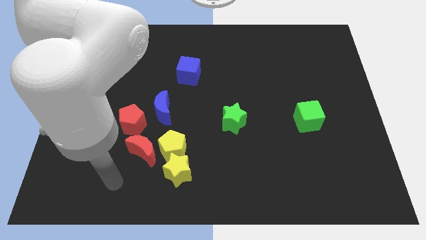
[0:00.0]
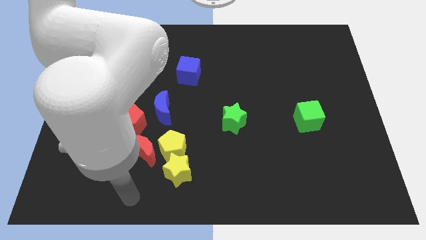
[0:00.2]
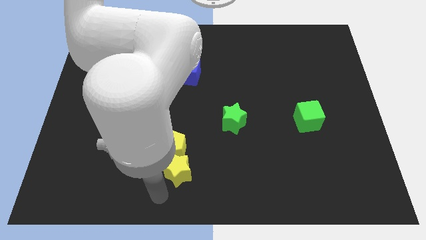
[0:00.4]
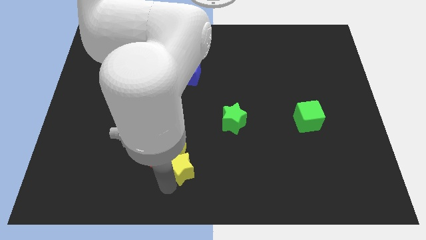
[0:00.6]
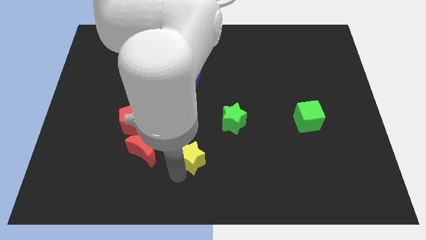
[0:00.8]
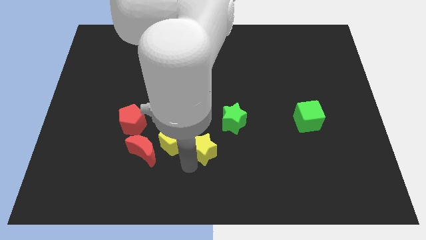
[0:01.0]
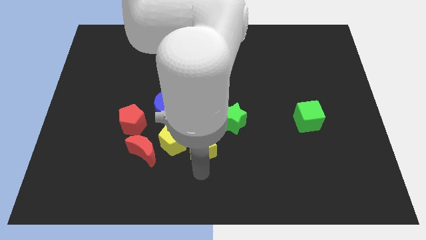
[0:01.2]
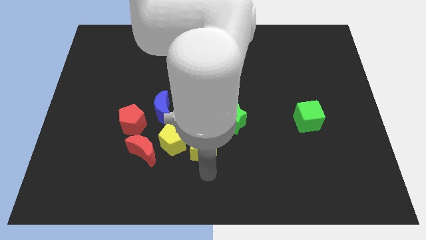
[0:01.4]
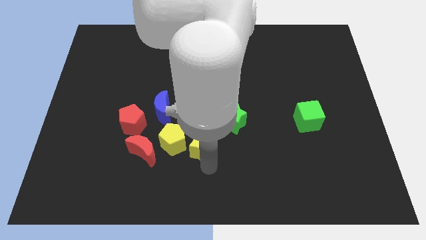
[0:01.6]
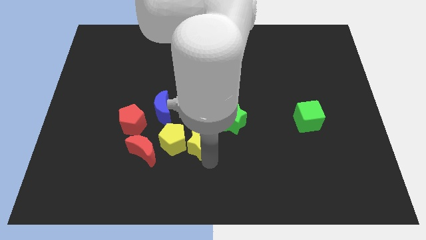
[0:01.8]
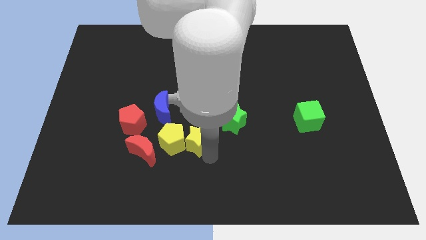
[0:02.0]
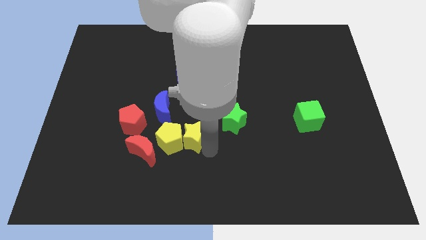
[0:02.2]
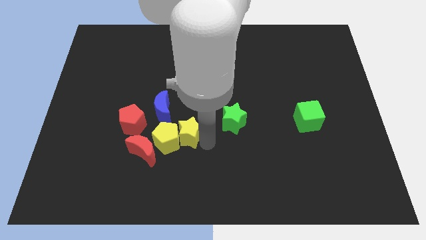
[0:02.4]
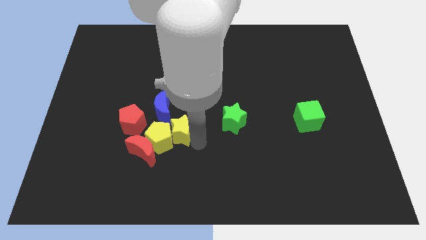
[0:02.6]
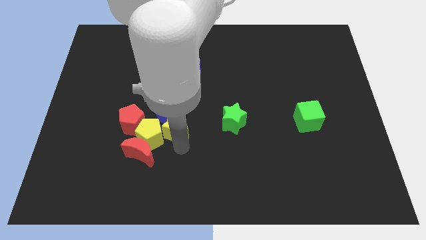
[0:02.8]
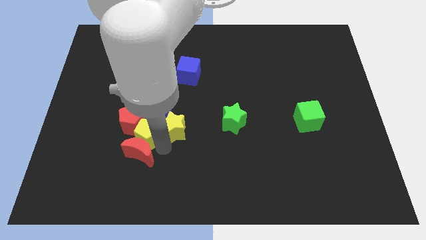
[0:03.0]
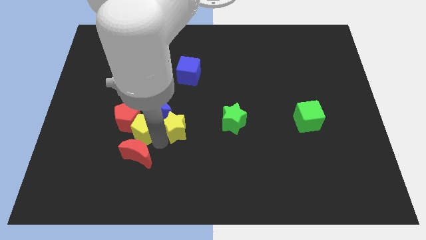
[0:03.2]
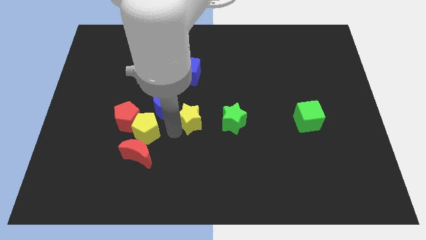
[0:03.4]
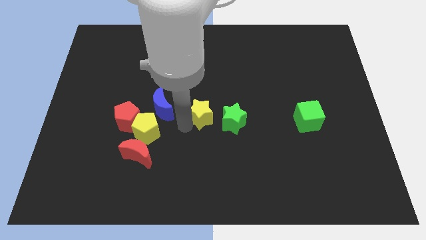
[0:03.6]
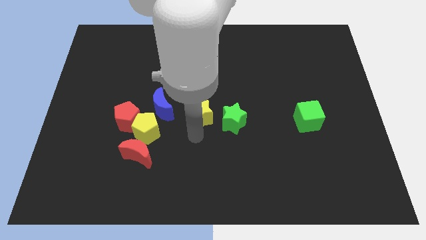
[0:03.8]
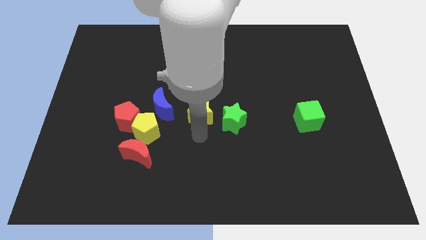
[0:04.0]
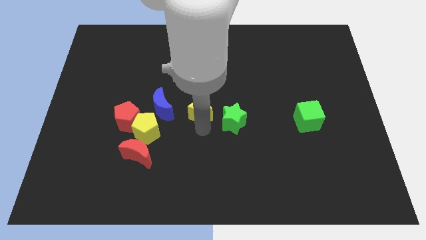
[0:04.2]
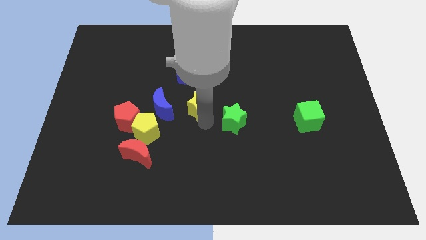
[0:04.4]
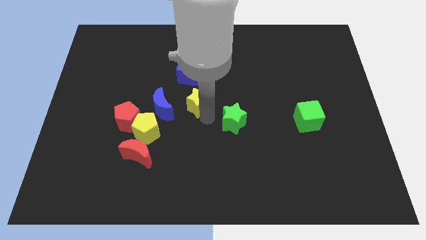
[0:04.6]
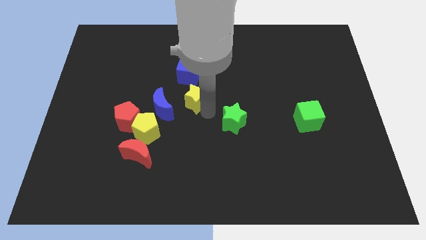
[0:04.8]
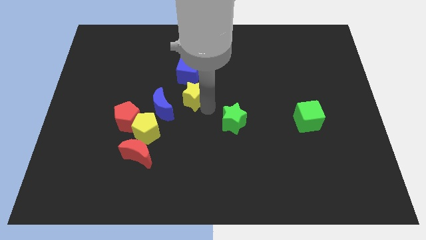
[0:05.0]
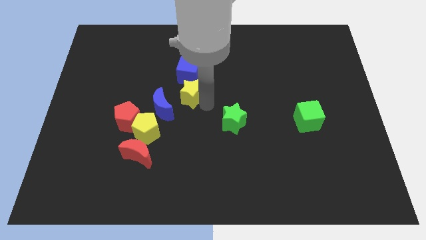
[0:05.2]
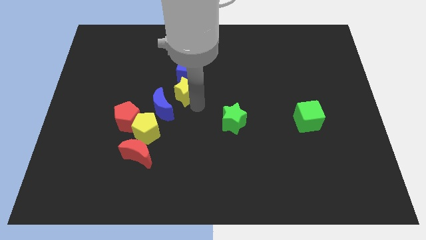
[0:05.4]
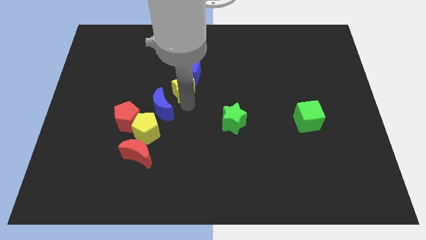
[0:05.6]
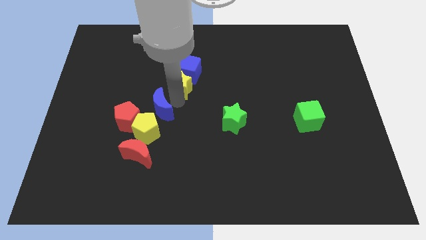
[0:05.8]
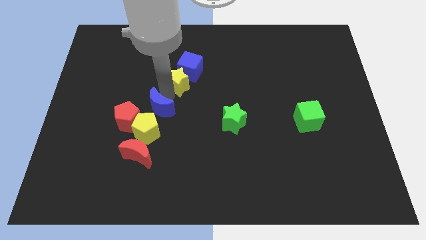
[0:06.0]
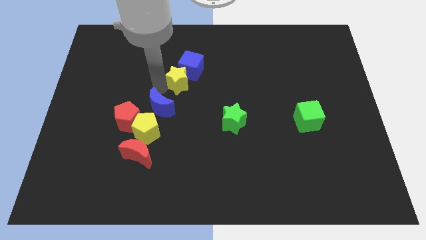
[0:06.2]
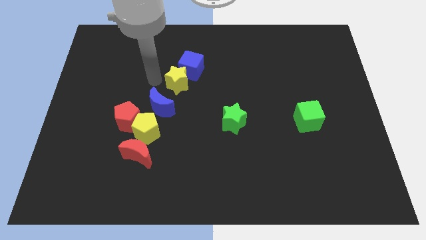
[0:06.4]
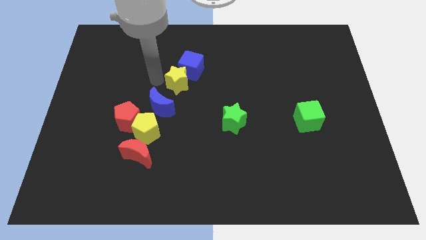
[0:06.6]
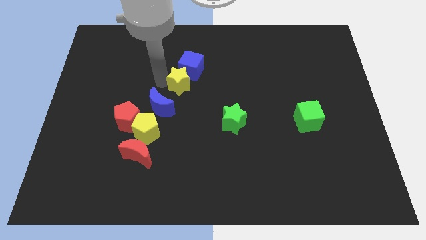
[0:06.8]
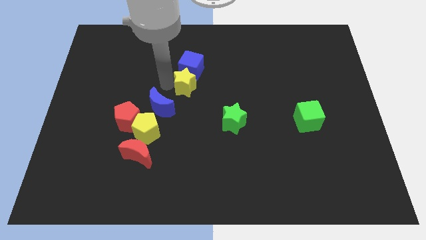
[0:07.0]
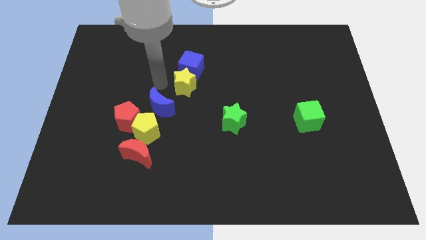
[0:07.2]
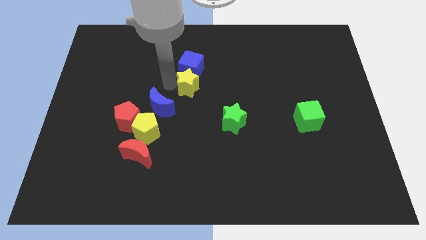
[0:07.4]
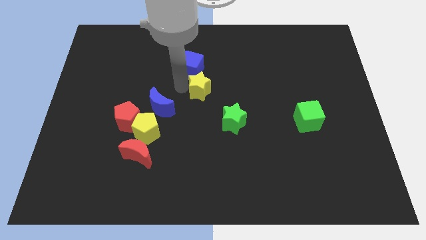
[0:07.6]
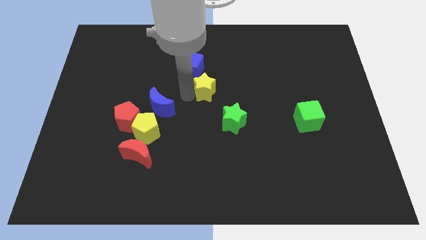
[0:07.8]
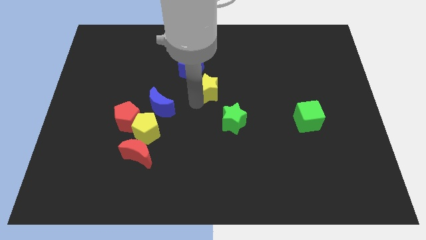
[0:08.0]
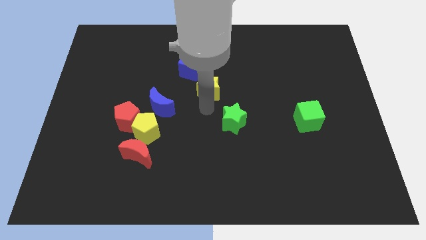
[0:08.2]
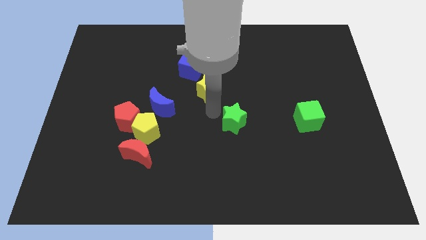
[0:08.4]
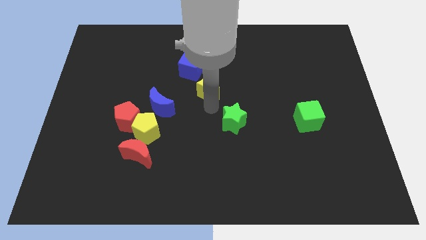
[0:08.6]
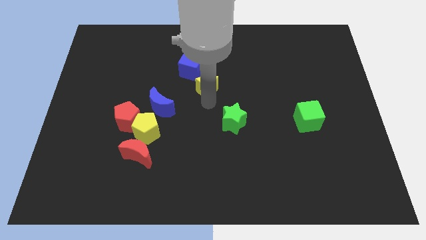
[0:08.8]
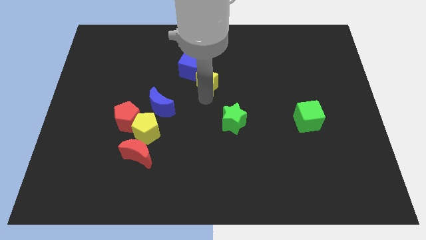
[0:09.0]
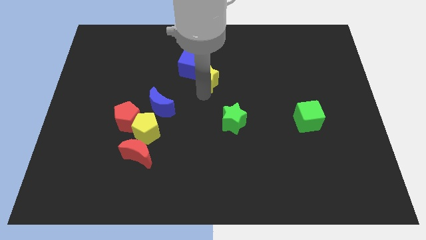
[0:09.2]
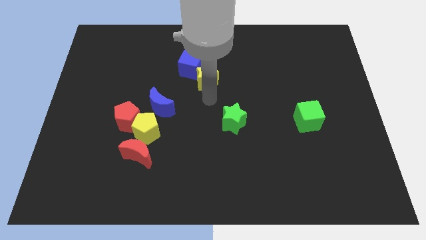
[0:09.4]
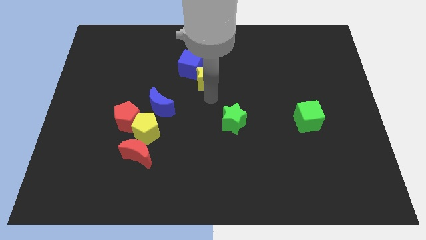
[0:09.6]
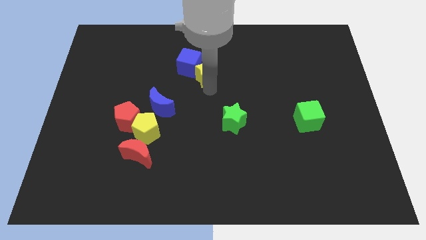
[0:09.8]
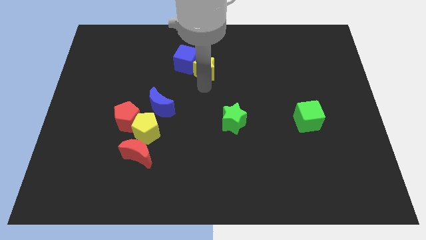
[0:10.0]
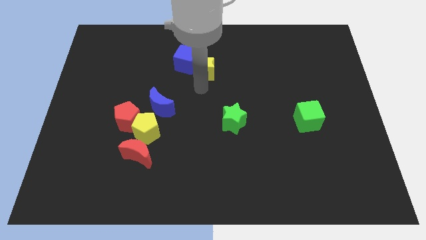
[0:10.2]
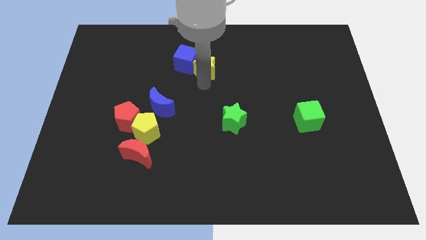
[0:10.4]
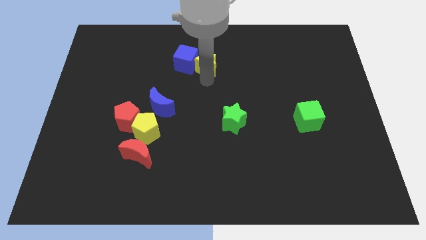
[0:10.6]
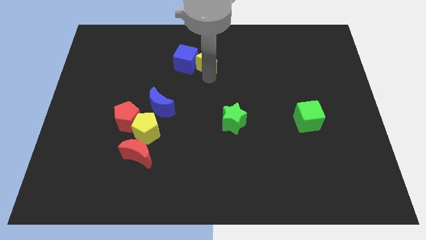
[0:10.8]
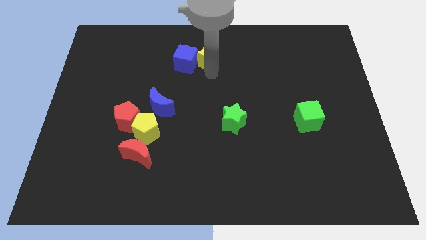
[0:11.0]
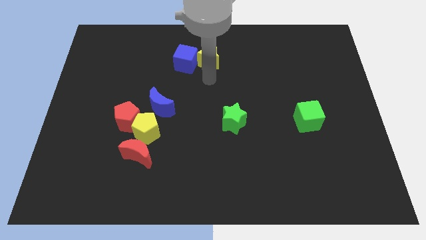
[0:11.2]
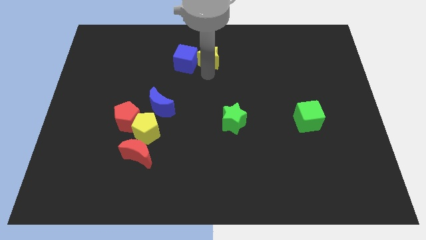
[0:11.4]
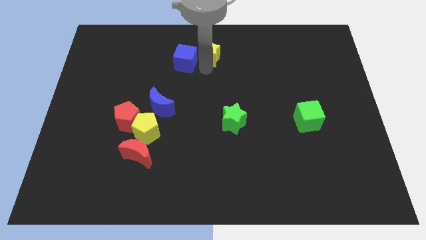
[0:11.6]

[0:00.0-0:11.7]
put the yellow star to the top

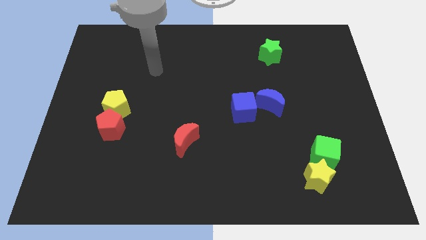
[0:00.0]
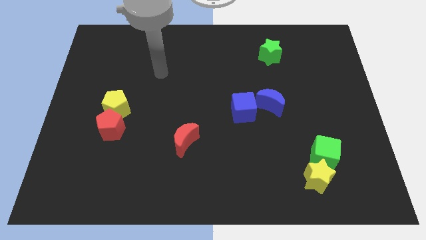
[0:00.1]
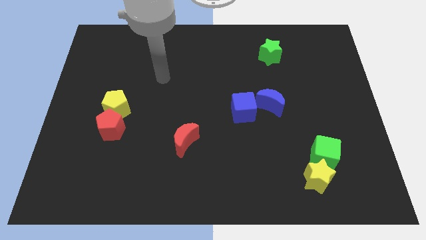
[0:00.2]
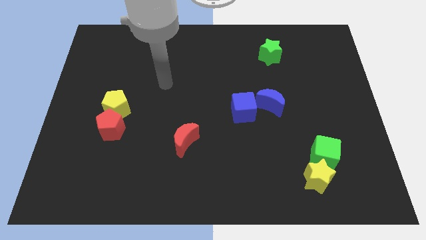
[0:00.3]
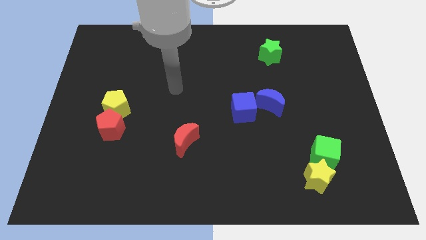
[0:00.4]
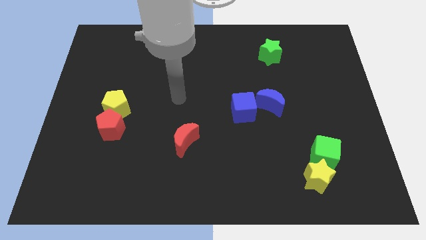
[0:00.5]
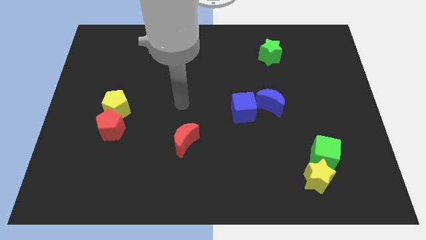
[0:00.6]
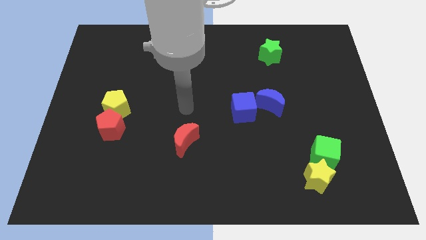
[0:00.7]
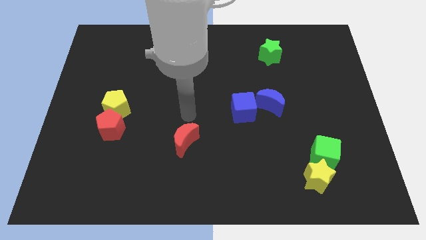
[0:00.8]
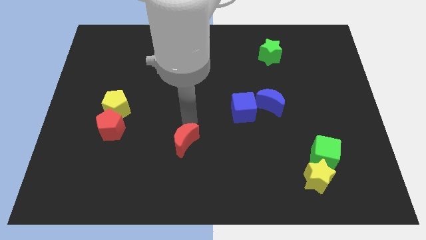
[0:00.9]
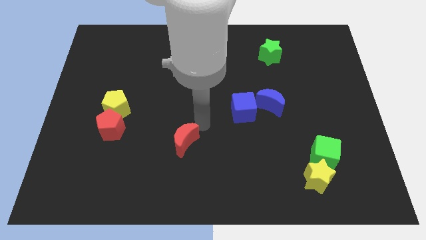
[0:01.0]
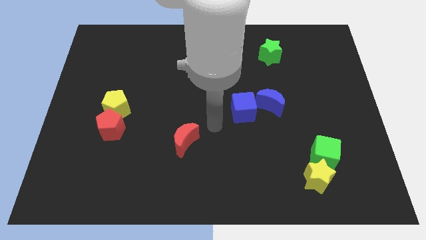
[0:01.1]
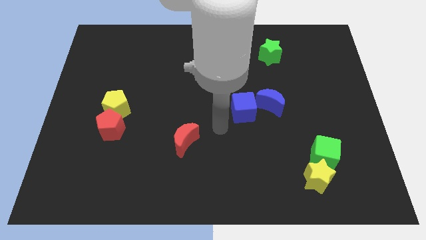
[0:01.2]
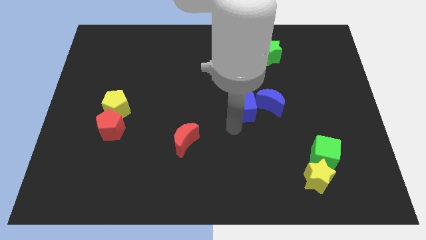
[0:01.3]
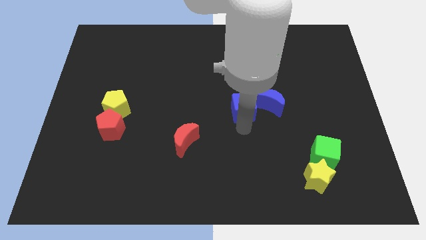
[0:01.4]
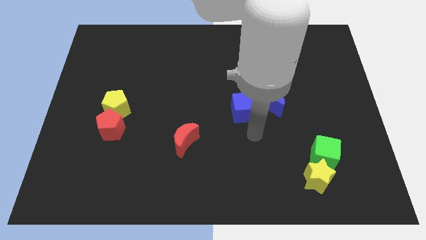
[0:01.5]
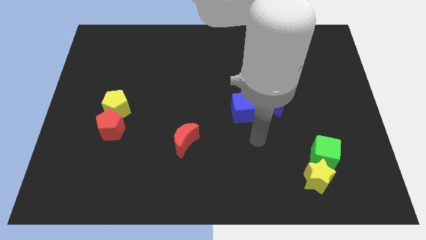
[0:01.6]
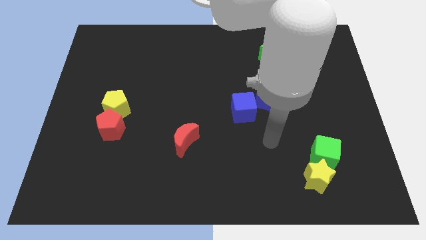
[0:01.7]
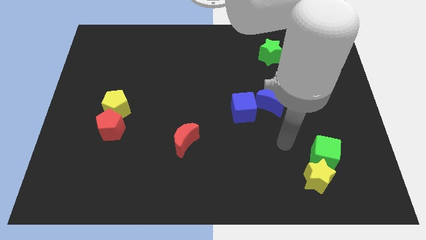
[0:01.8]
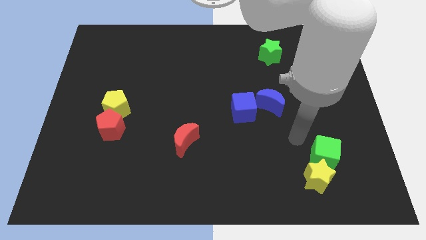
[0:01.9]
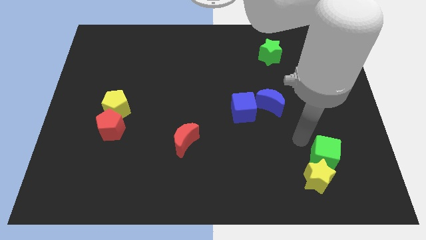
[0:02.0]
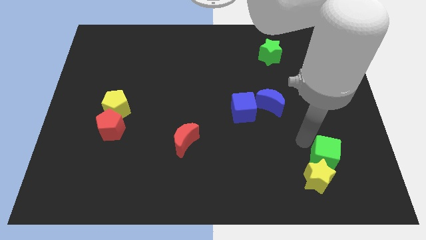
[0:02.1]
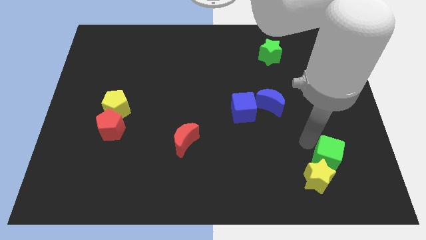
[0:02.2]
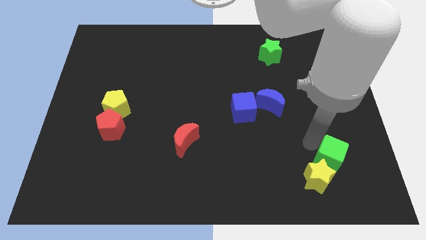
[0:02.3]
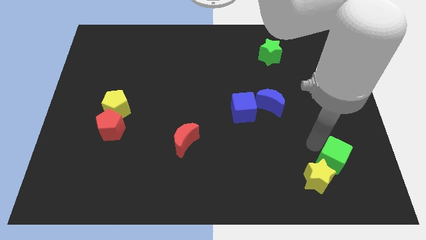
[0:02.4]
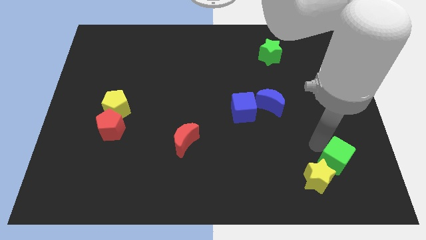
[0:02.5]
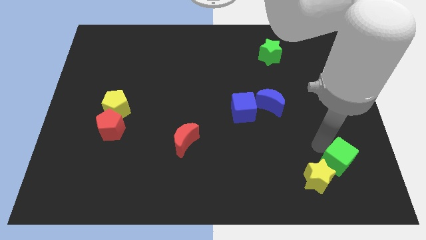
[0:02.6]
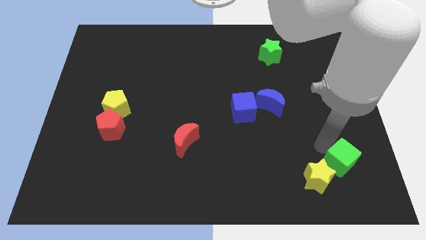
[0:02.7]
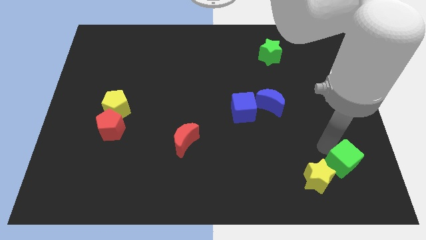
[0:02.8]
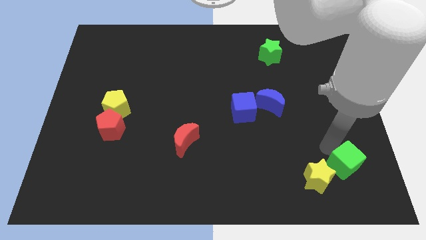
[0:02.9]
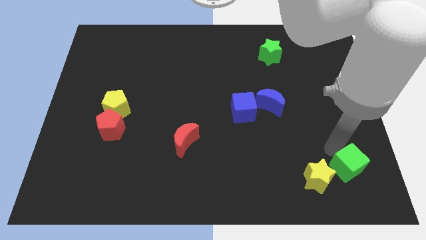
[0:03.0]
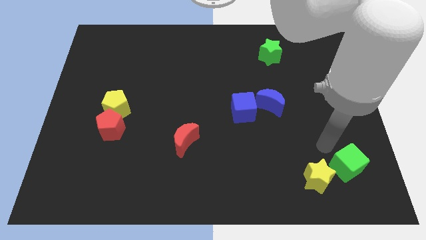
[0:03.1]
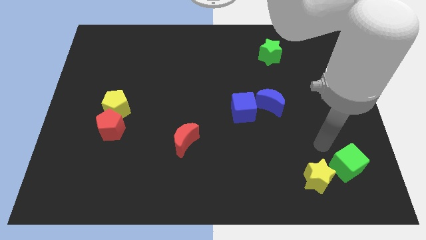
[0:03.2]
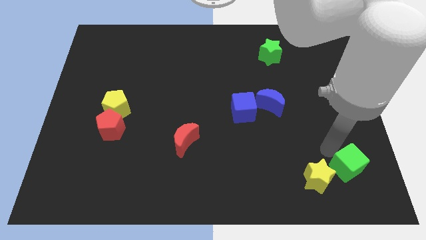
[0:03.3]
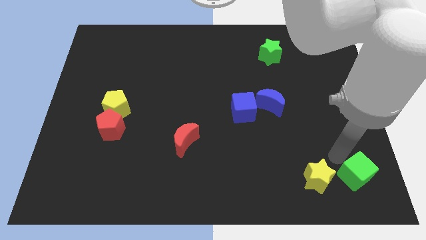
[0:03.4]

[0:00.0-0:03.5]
slide the green cube to the bottom right corner
